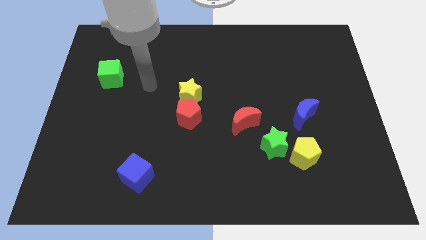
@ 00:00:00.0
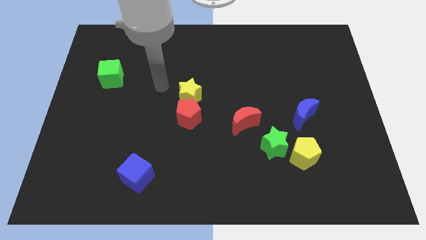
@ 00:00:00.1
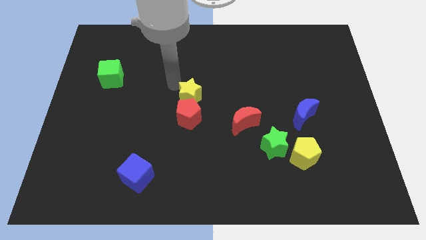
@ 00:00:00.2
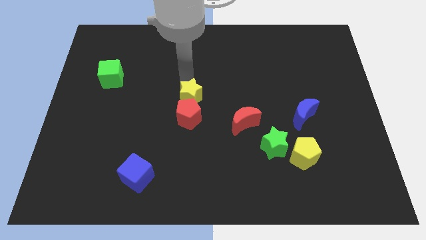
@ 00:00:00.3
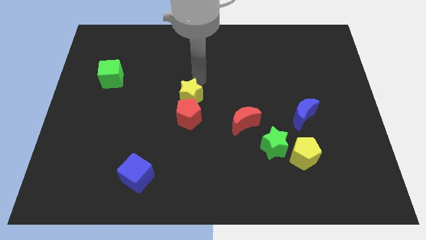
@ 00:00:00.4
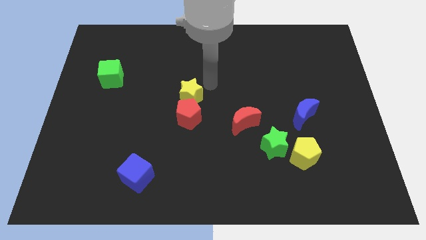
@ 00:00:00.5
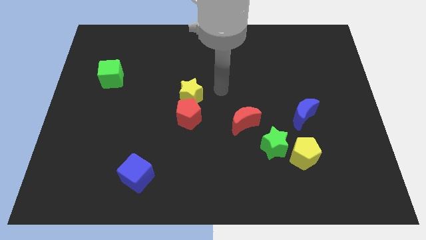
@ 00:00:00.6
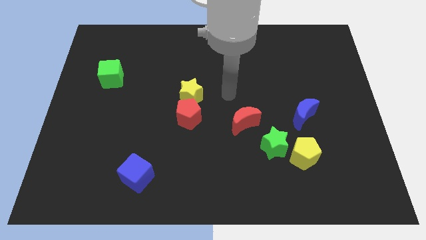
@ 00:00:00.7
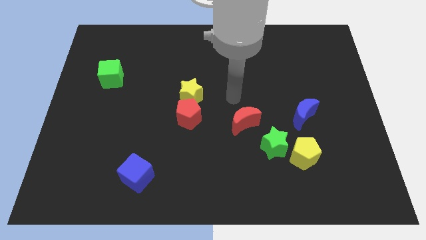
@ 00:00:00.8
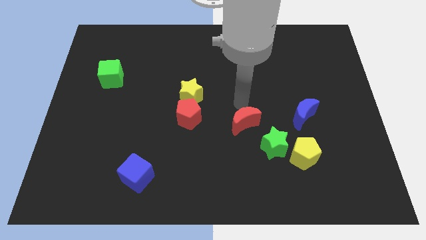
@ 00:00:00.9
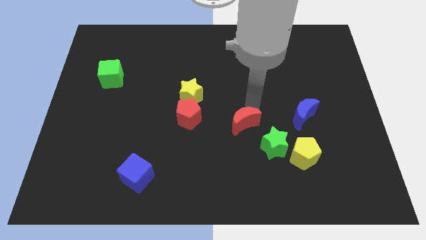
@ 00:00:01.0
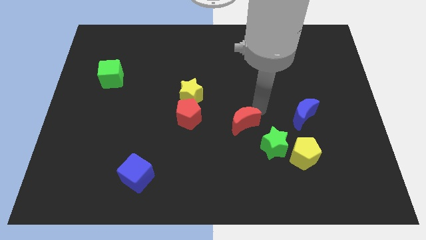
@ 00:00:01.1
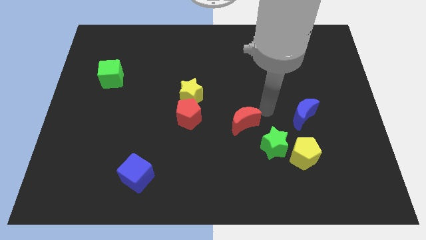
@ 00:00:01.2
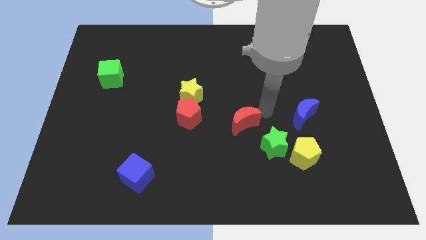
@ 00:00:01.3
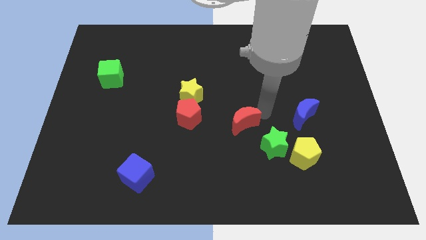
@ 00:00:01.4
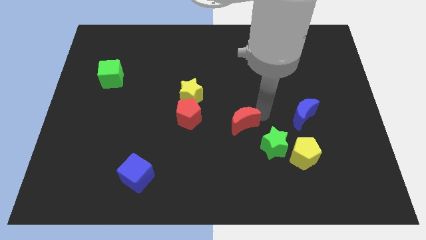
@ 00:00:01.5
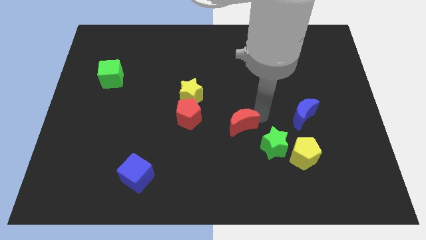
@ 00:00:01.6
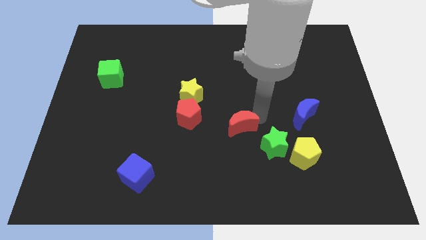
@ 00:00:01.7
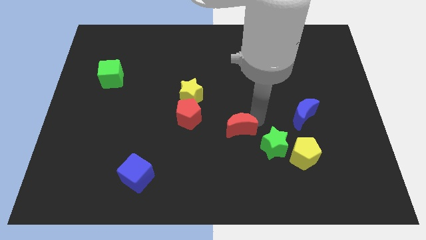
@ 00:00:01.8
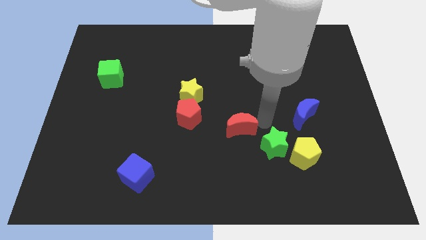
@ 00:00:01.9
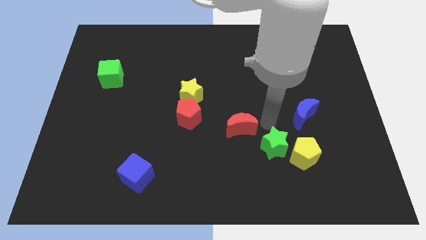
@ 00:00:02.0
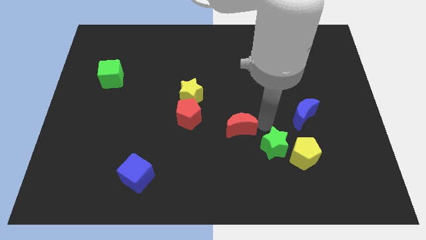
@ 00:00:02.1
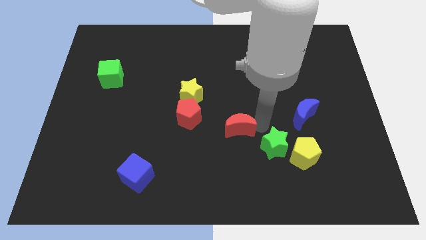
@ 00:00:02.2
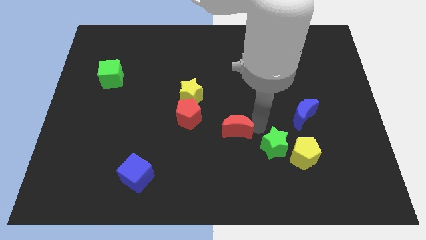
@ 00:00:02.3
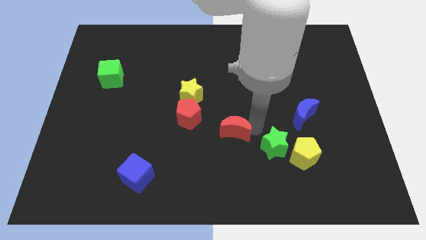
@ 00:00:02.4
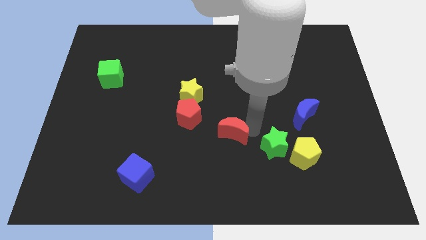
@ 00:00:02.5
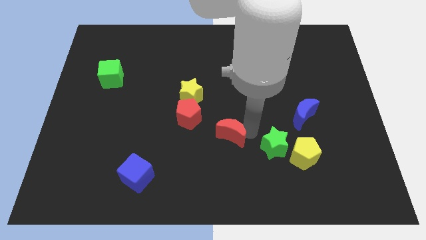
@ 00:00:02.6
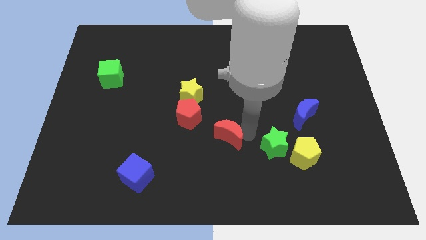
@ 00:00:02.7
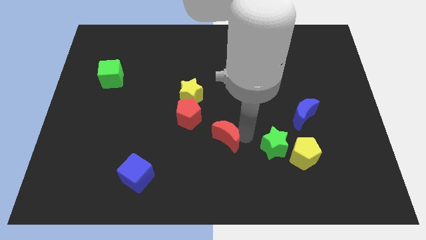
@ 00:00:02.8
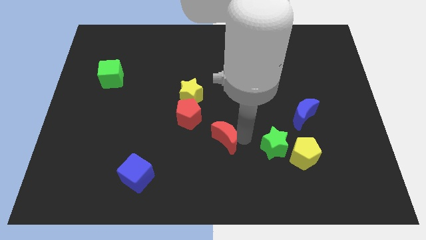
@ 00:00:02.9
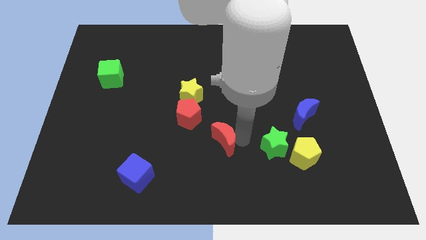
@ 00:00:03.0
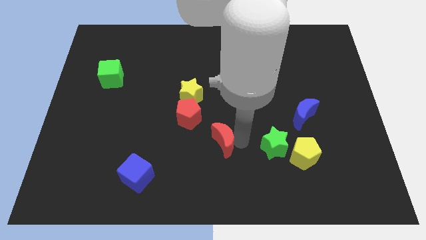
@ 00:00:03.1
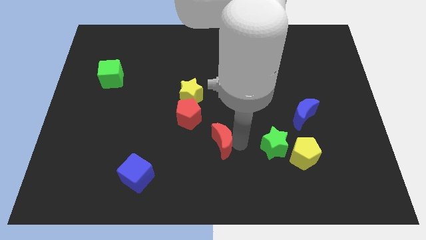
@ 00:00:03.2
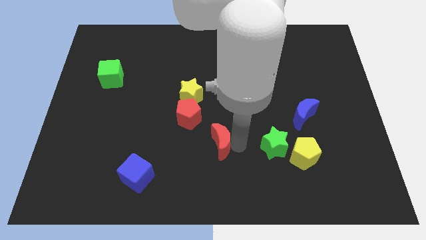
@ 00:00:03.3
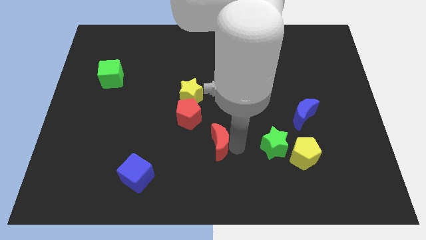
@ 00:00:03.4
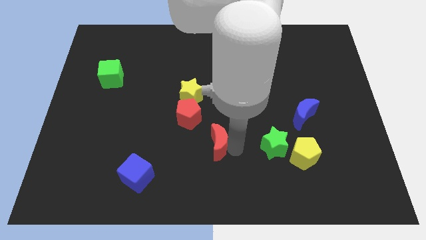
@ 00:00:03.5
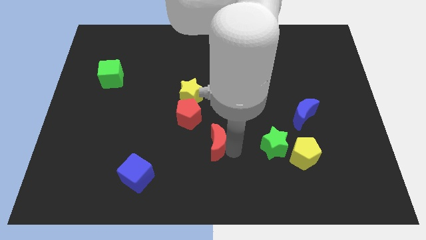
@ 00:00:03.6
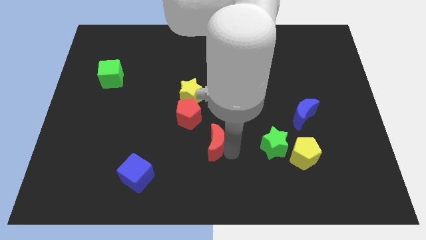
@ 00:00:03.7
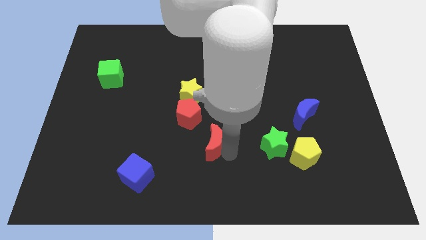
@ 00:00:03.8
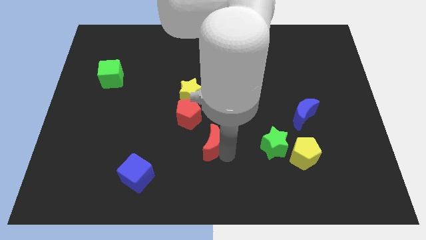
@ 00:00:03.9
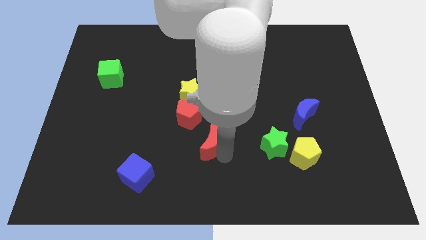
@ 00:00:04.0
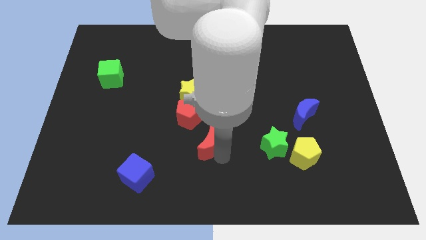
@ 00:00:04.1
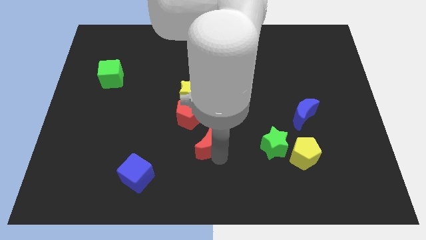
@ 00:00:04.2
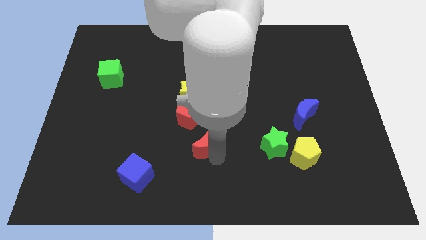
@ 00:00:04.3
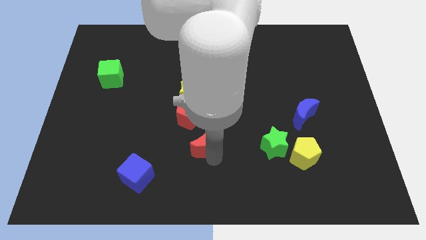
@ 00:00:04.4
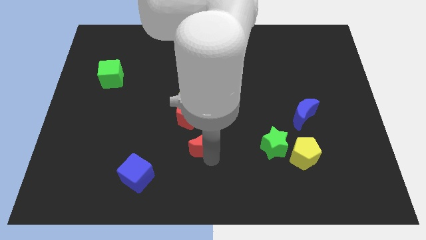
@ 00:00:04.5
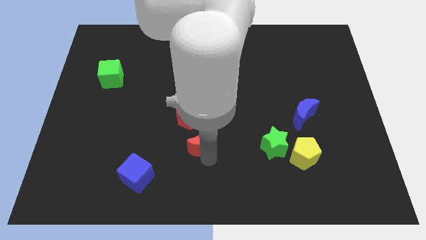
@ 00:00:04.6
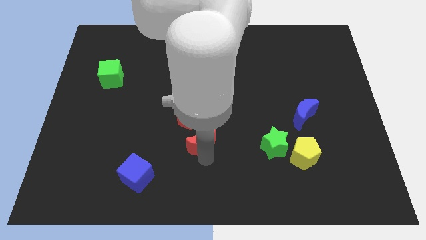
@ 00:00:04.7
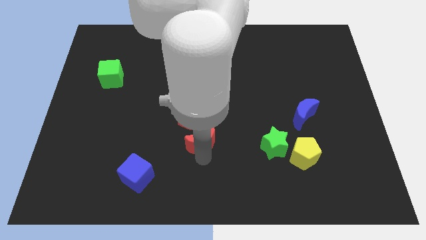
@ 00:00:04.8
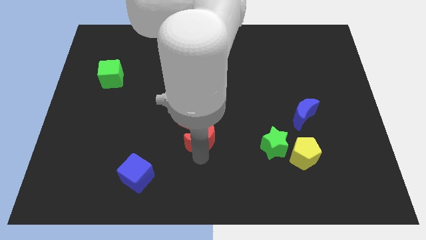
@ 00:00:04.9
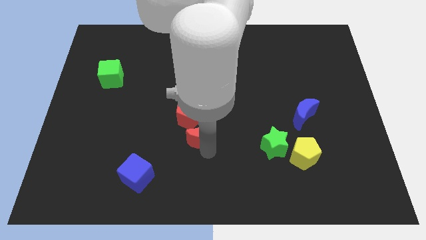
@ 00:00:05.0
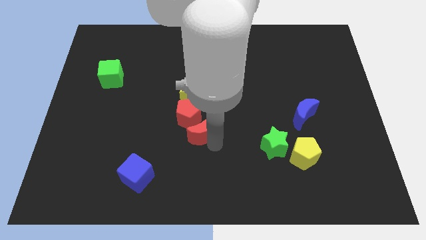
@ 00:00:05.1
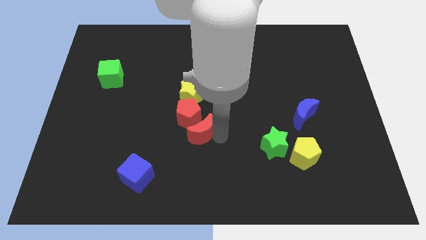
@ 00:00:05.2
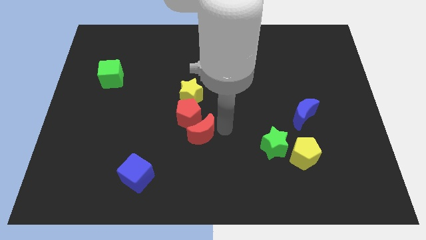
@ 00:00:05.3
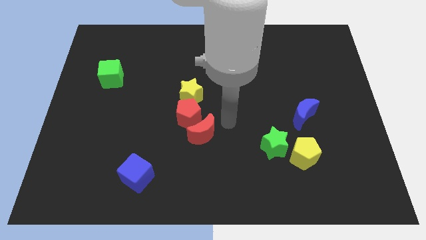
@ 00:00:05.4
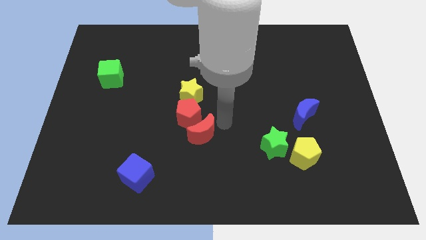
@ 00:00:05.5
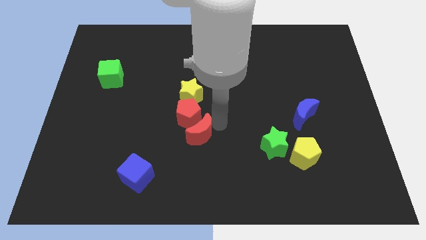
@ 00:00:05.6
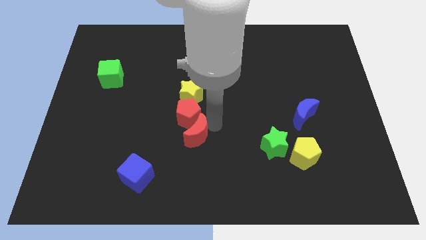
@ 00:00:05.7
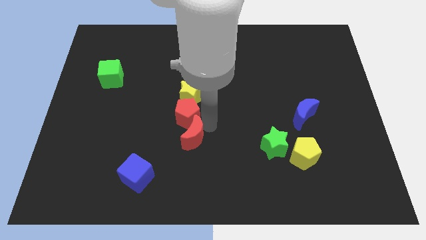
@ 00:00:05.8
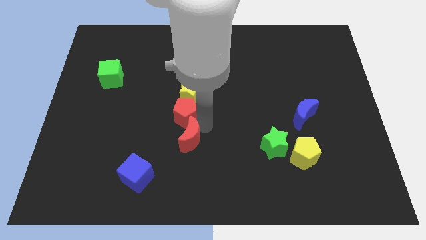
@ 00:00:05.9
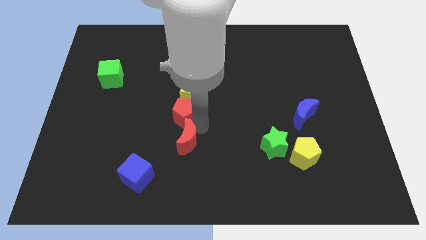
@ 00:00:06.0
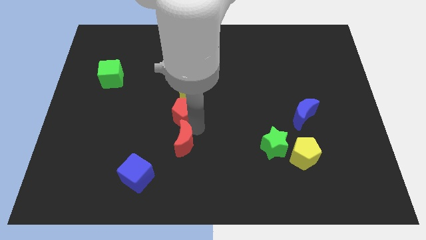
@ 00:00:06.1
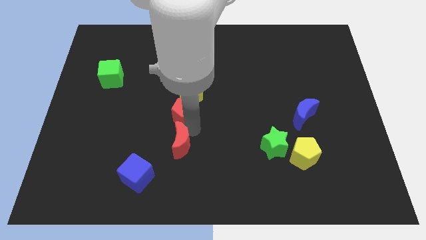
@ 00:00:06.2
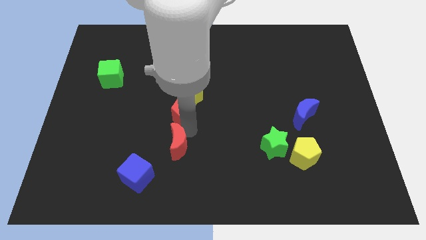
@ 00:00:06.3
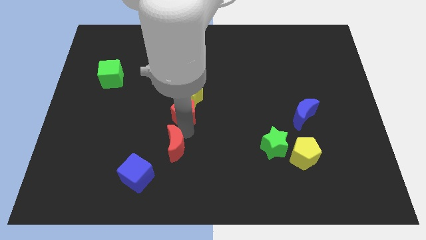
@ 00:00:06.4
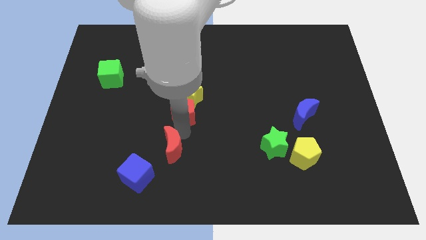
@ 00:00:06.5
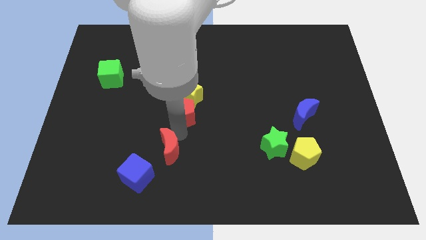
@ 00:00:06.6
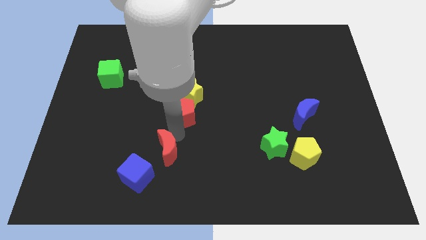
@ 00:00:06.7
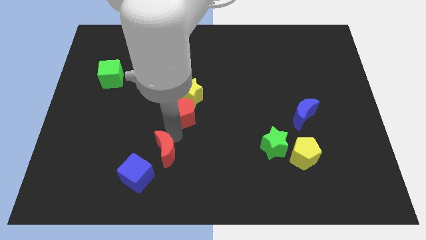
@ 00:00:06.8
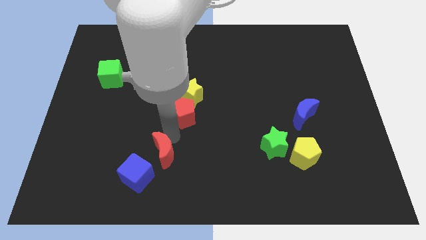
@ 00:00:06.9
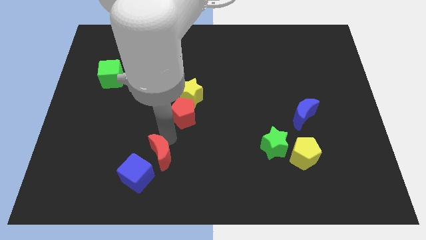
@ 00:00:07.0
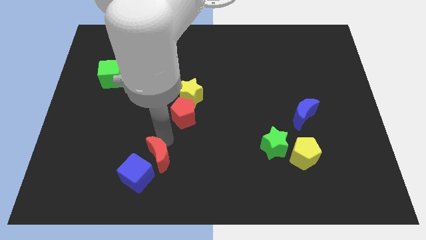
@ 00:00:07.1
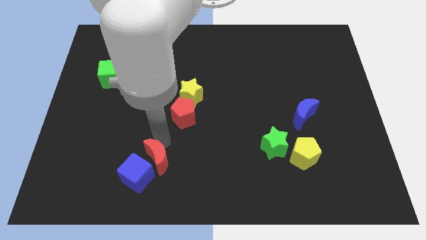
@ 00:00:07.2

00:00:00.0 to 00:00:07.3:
put the red moon towards the blue cube
